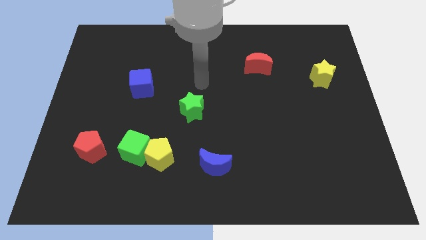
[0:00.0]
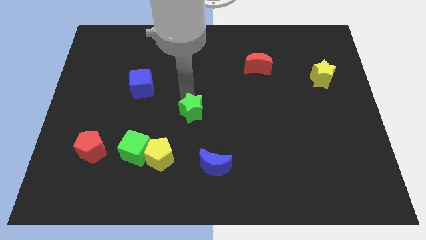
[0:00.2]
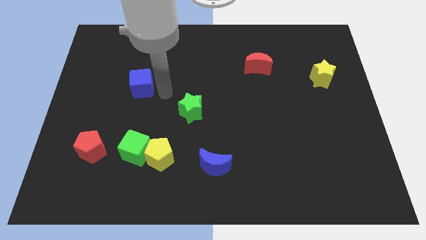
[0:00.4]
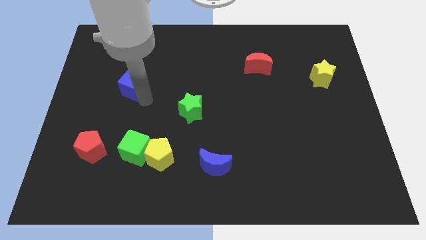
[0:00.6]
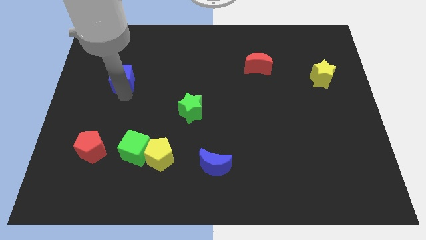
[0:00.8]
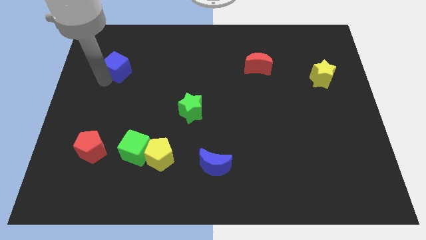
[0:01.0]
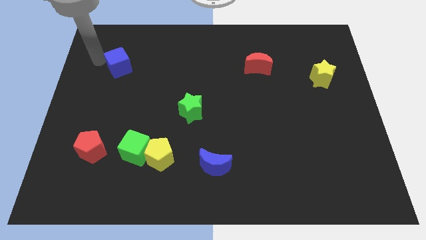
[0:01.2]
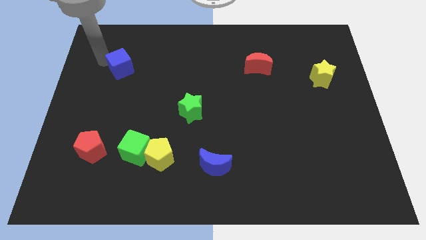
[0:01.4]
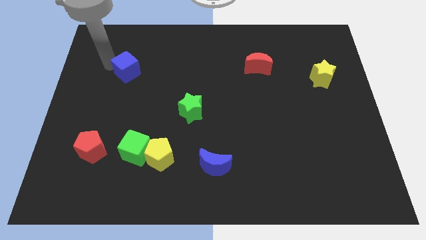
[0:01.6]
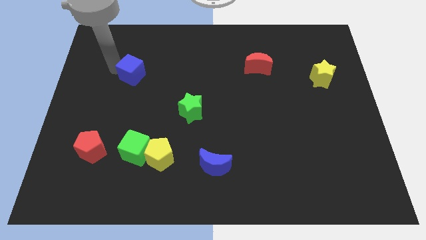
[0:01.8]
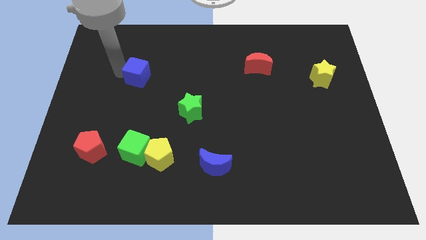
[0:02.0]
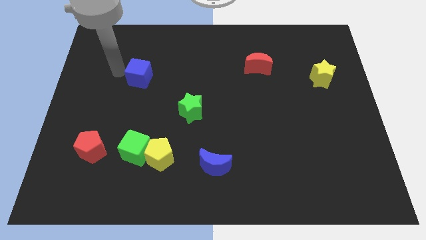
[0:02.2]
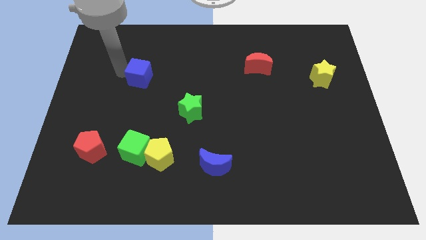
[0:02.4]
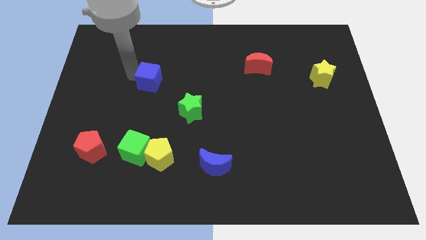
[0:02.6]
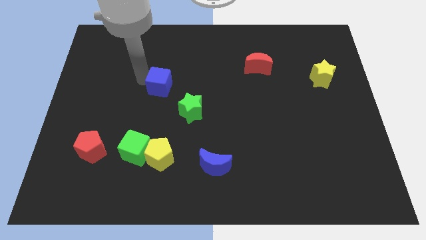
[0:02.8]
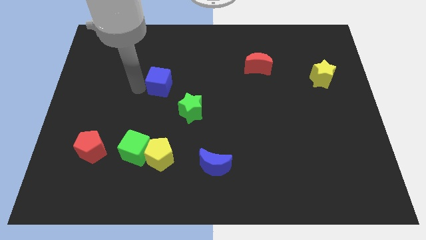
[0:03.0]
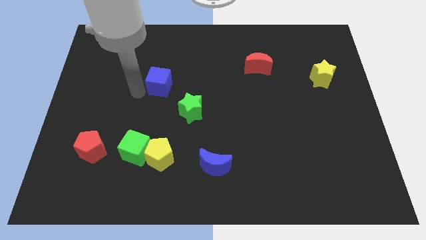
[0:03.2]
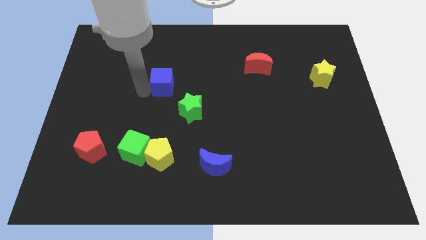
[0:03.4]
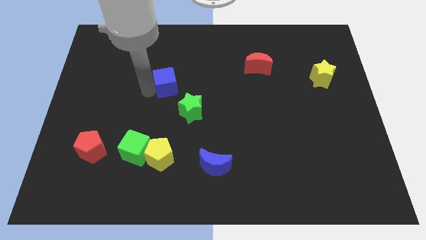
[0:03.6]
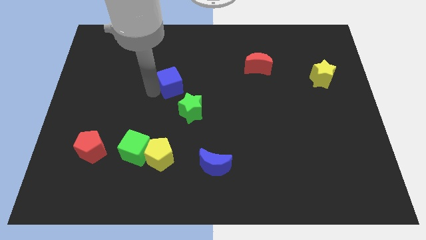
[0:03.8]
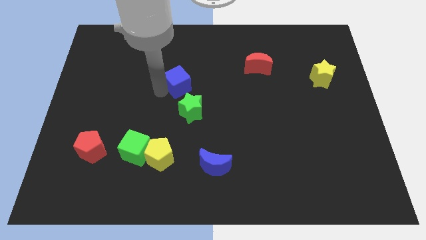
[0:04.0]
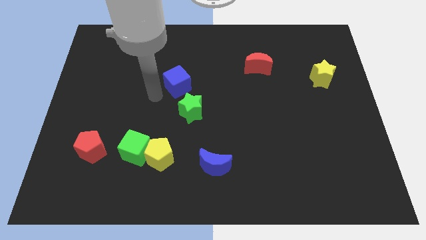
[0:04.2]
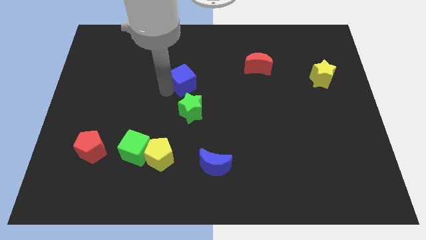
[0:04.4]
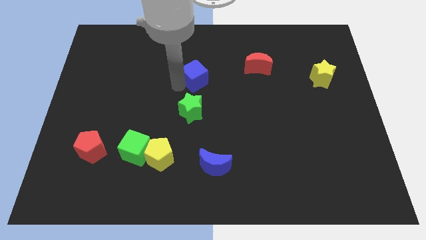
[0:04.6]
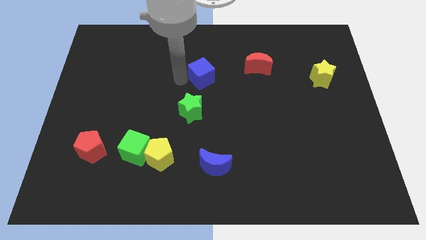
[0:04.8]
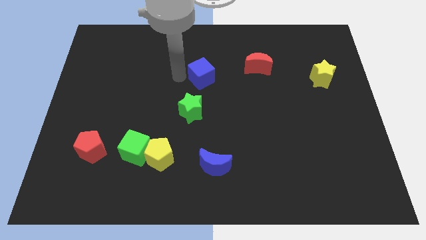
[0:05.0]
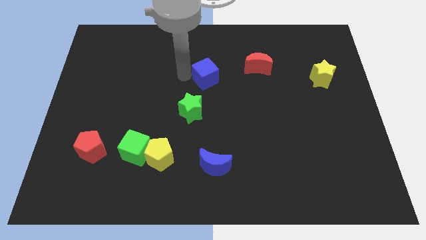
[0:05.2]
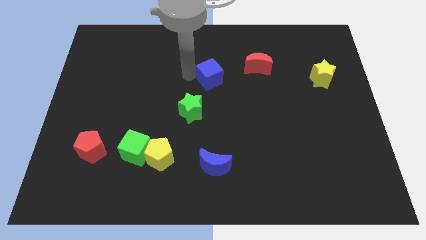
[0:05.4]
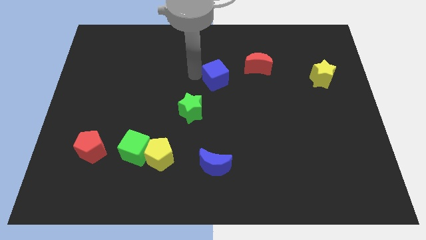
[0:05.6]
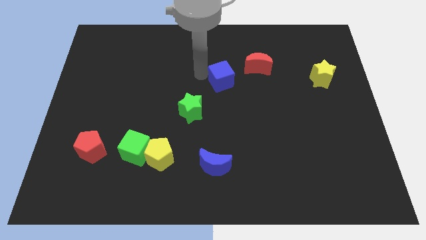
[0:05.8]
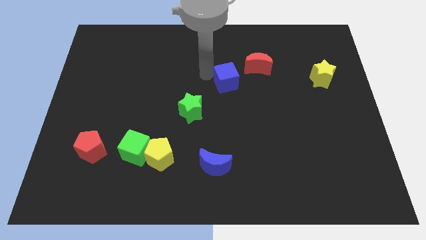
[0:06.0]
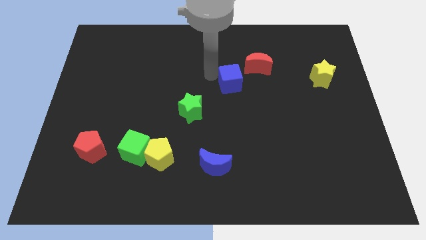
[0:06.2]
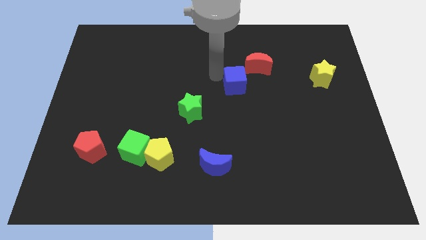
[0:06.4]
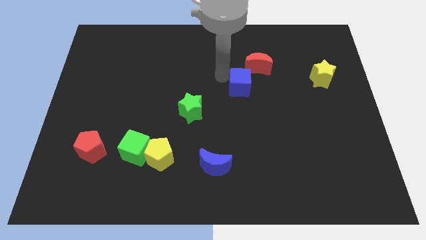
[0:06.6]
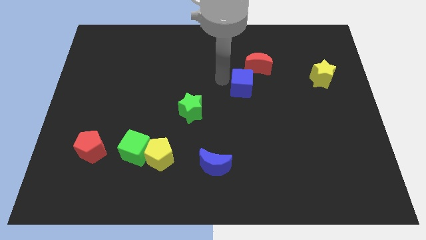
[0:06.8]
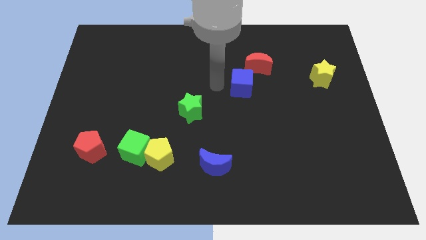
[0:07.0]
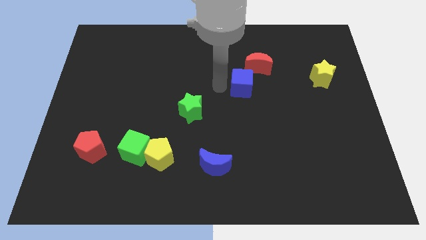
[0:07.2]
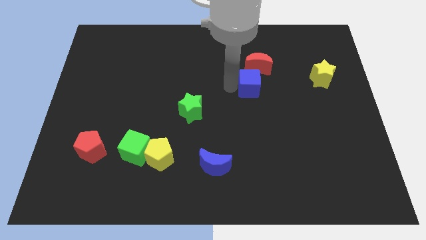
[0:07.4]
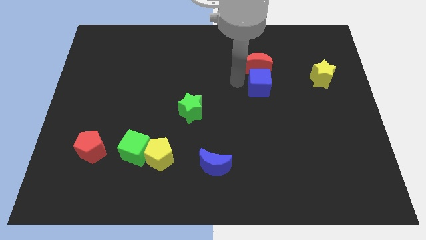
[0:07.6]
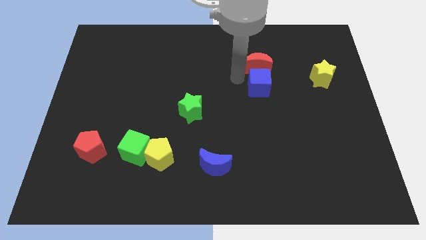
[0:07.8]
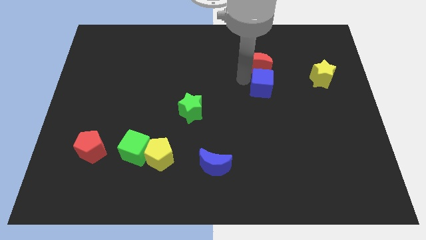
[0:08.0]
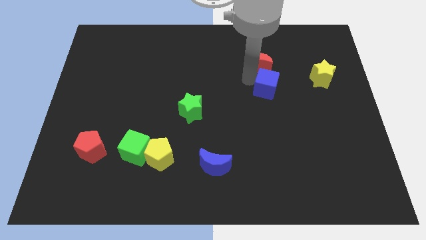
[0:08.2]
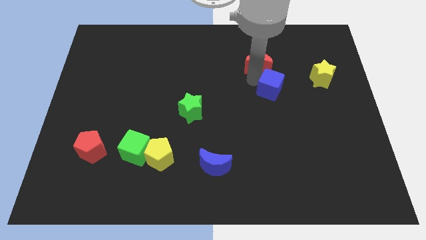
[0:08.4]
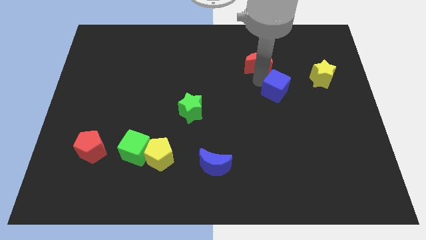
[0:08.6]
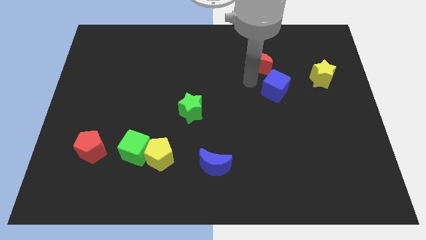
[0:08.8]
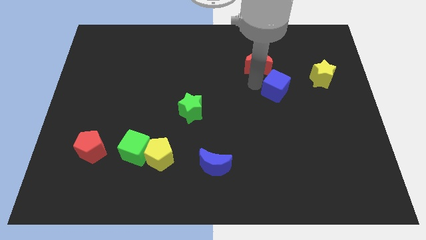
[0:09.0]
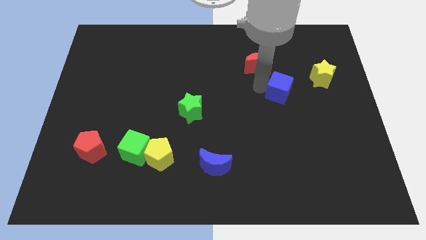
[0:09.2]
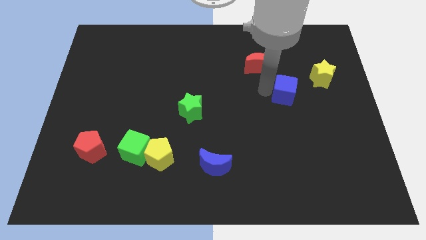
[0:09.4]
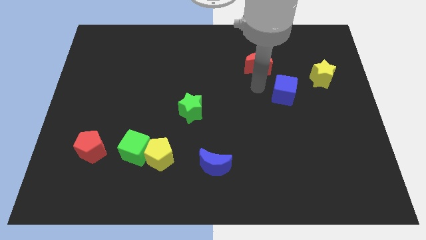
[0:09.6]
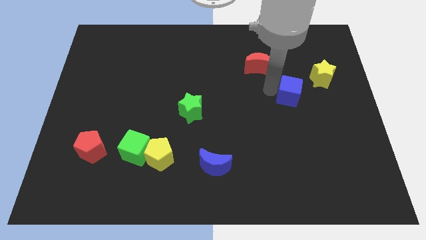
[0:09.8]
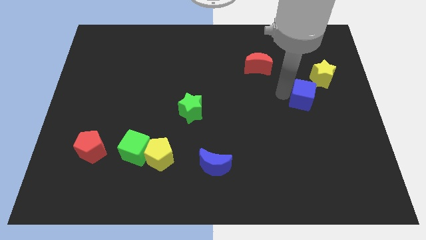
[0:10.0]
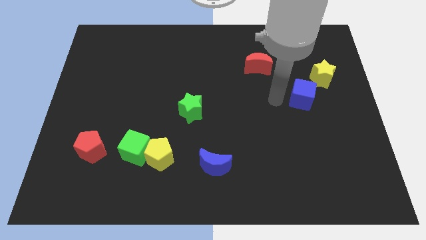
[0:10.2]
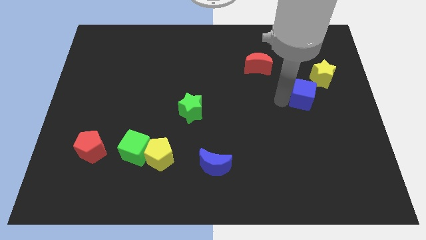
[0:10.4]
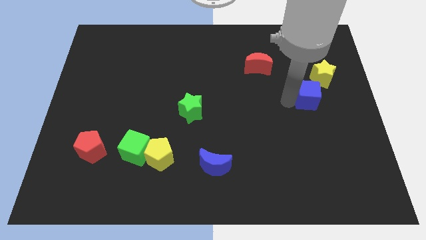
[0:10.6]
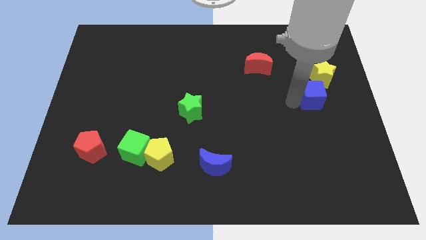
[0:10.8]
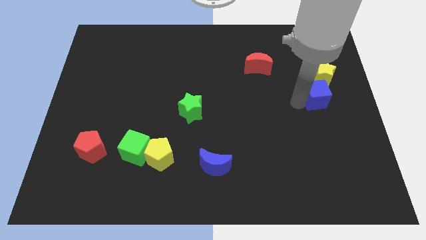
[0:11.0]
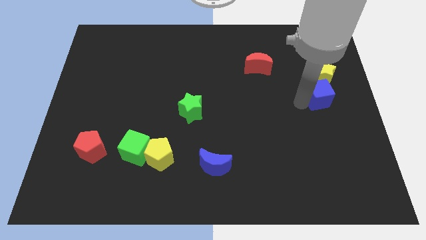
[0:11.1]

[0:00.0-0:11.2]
put the blue cube to the right side of the board

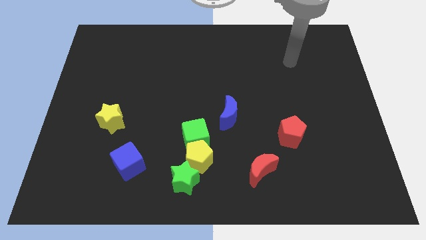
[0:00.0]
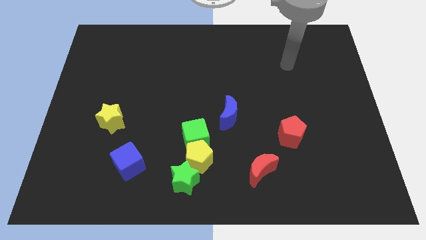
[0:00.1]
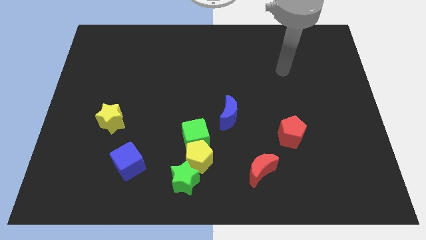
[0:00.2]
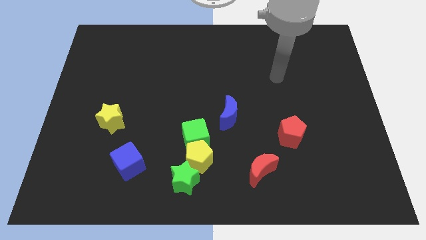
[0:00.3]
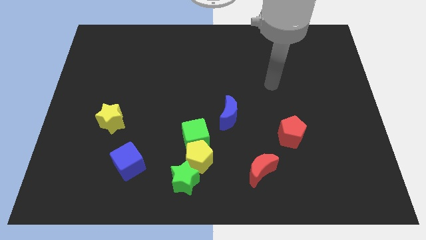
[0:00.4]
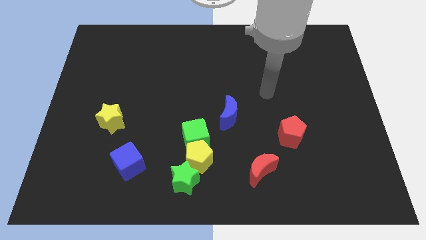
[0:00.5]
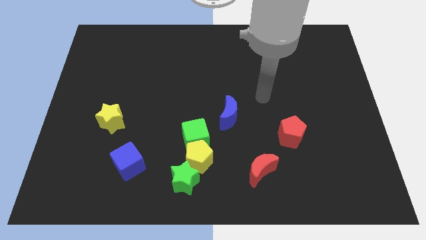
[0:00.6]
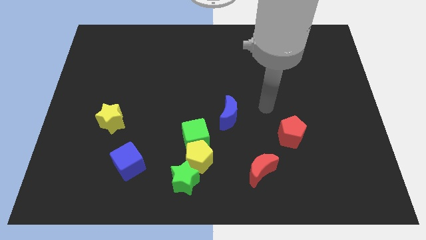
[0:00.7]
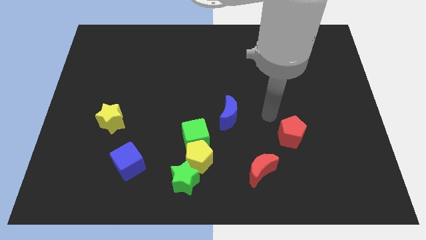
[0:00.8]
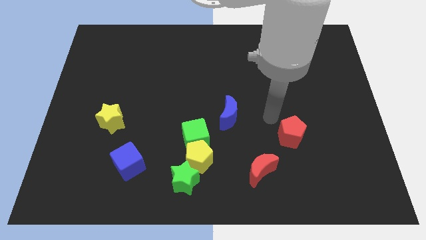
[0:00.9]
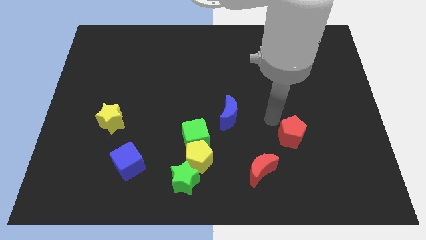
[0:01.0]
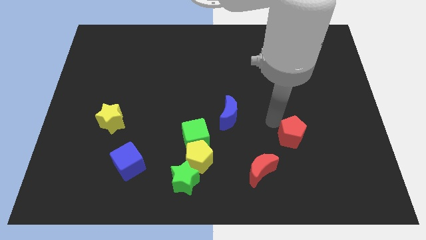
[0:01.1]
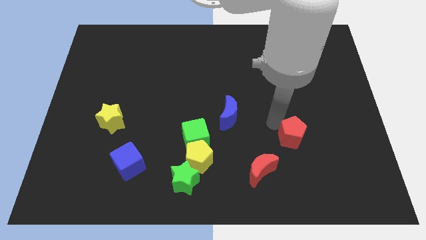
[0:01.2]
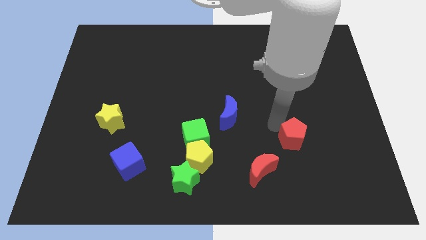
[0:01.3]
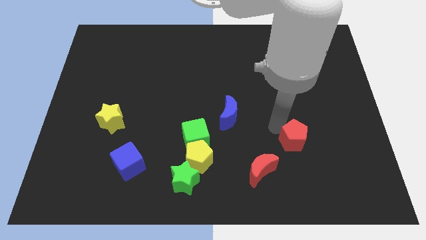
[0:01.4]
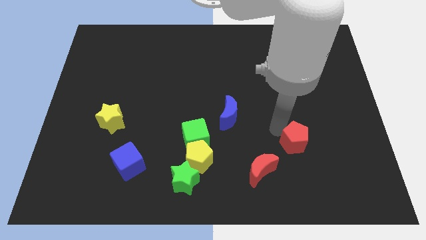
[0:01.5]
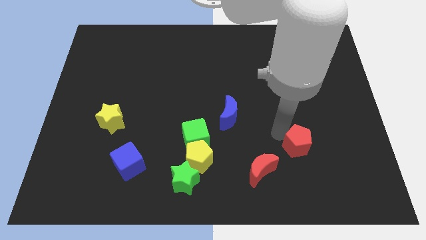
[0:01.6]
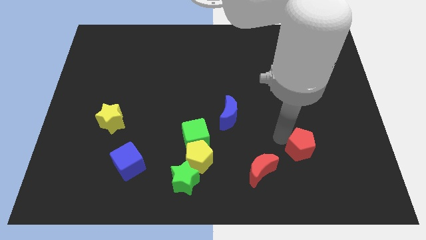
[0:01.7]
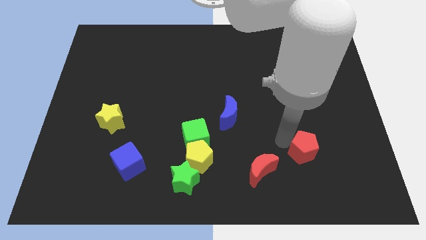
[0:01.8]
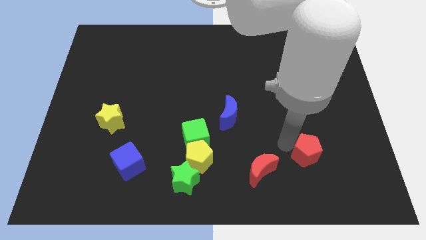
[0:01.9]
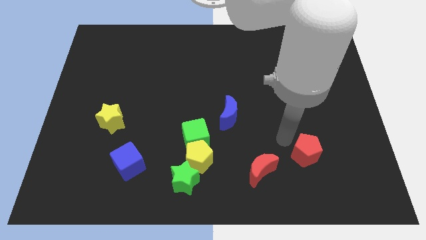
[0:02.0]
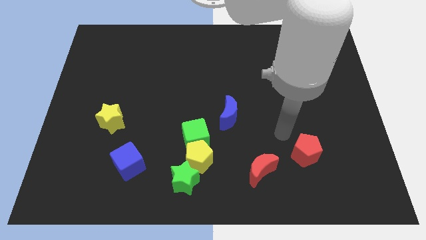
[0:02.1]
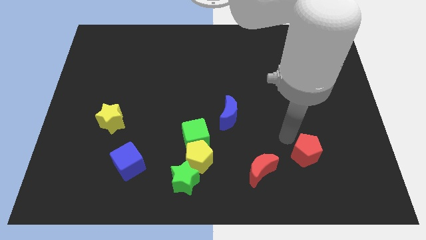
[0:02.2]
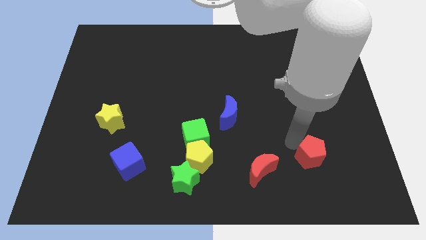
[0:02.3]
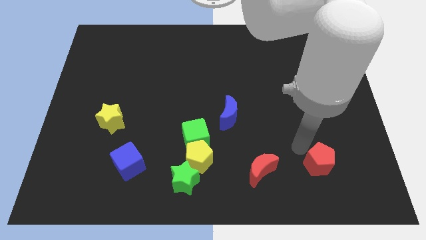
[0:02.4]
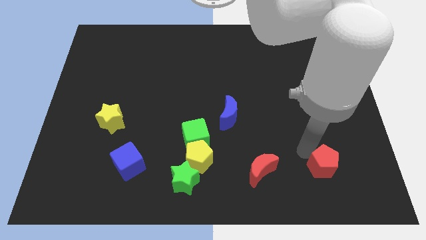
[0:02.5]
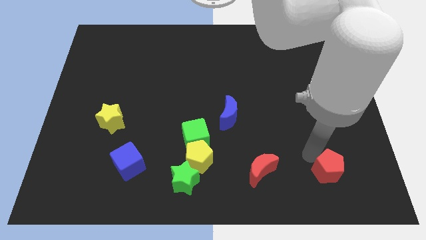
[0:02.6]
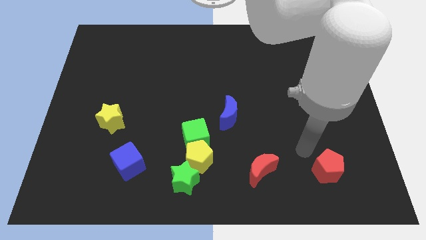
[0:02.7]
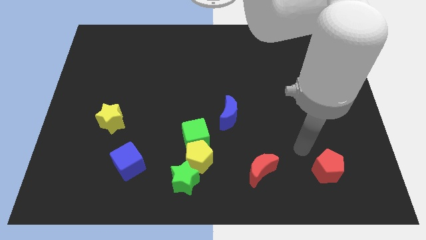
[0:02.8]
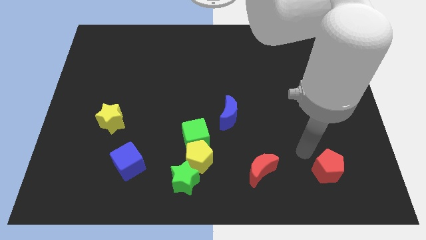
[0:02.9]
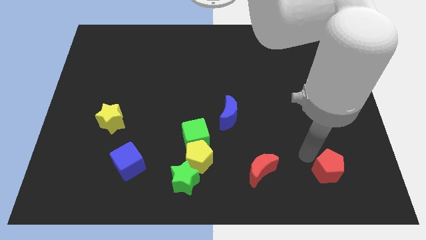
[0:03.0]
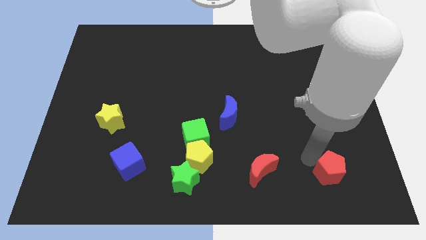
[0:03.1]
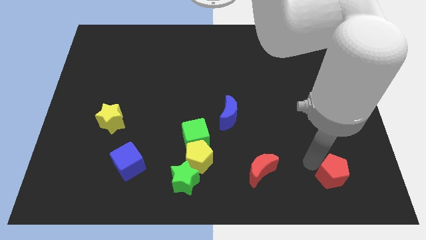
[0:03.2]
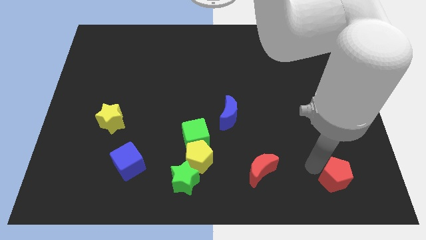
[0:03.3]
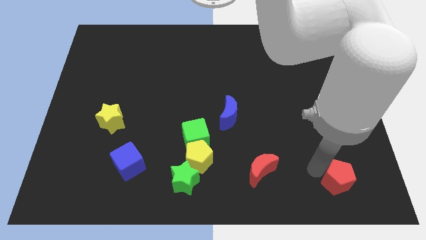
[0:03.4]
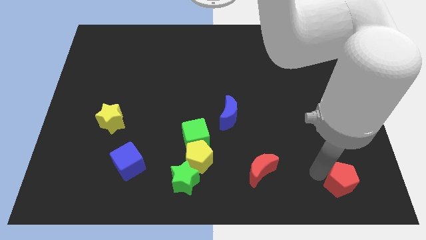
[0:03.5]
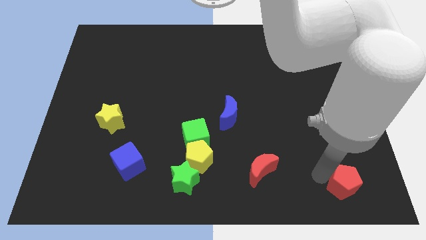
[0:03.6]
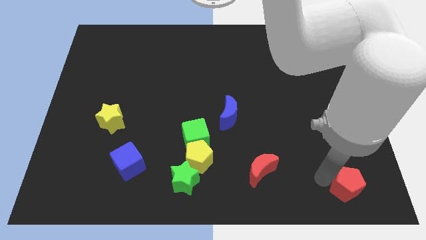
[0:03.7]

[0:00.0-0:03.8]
move the red pentagon to the lower right corner
